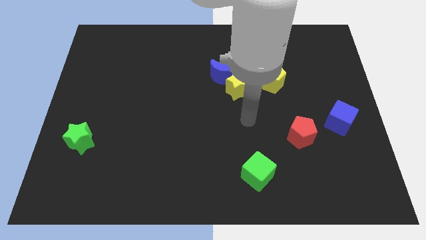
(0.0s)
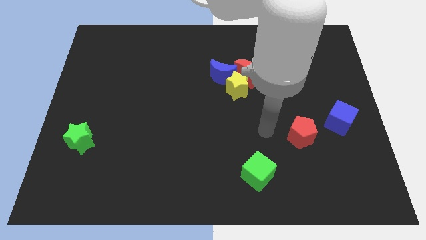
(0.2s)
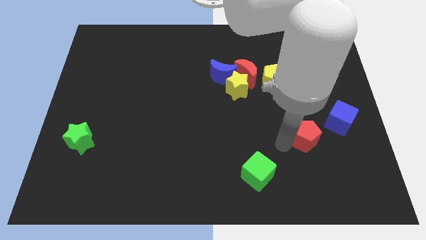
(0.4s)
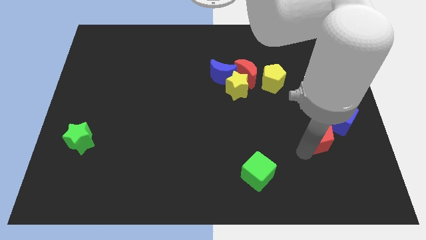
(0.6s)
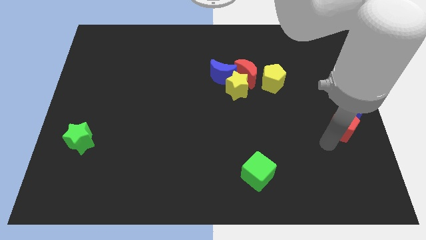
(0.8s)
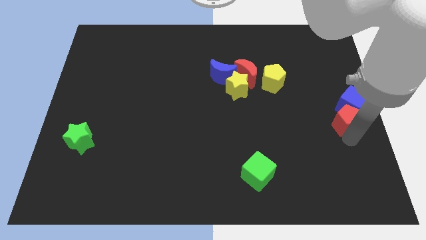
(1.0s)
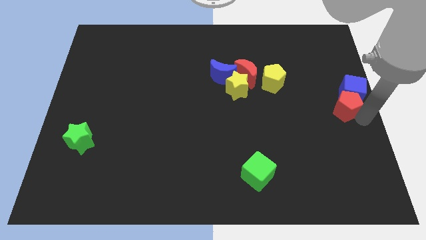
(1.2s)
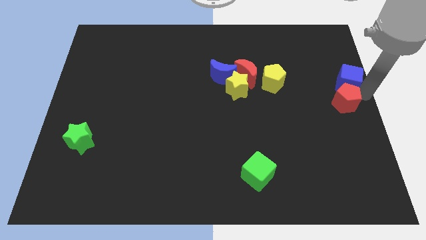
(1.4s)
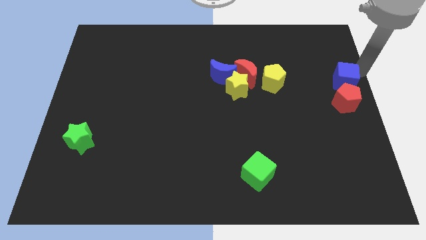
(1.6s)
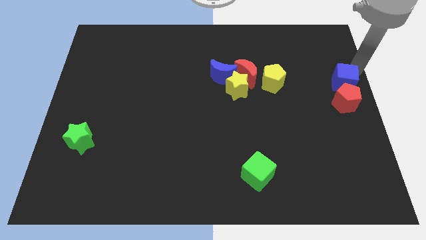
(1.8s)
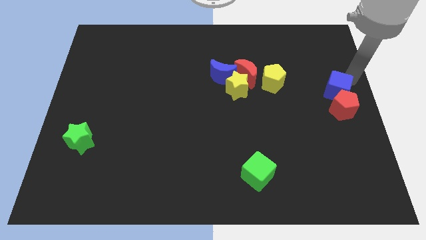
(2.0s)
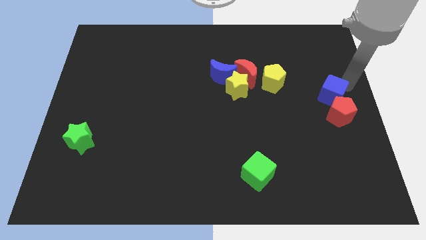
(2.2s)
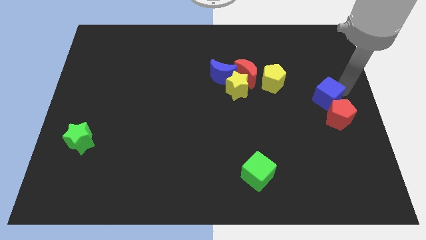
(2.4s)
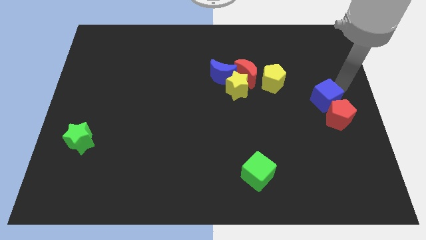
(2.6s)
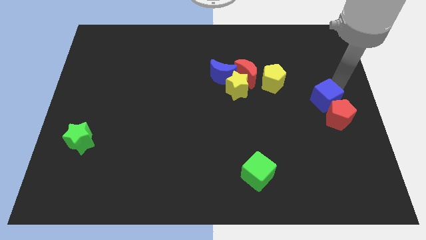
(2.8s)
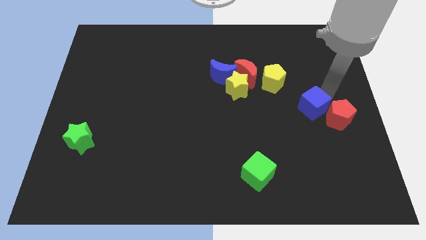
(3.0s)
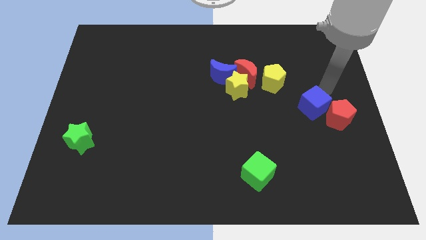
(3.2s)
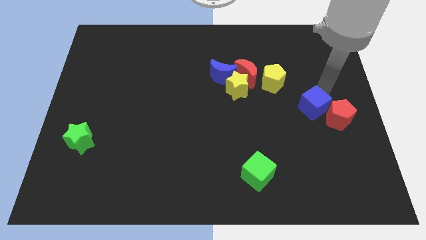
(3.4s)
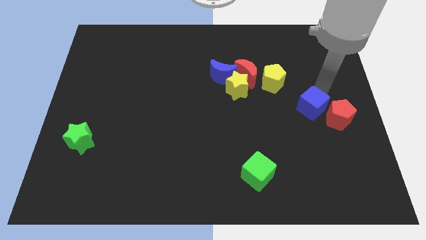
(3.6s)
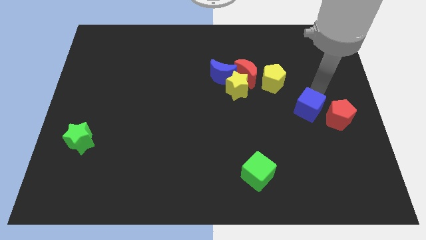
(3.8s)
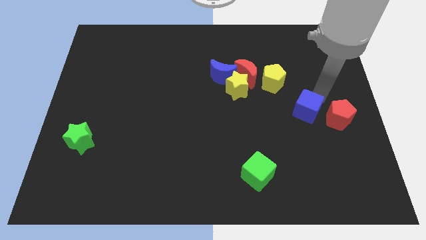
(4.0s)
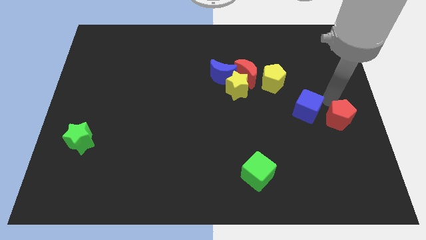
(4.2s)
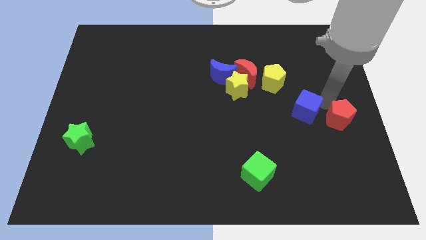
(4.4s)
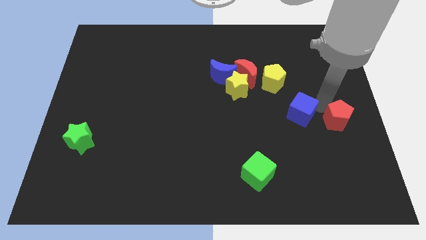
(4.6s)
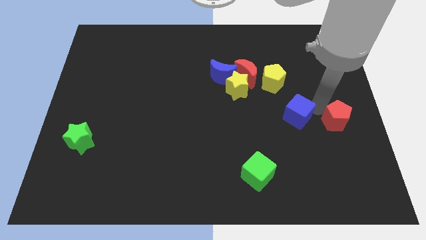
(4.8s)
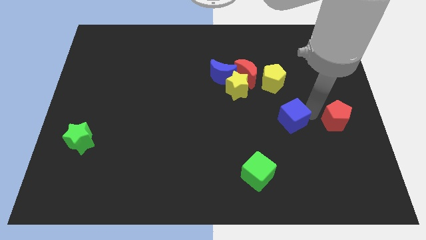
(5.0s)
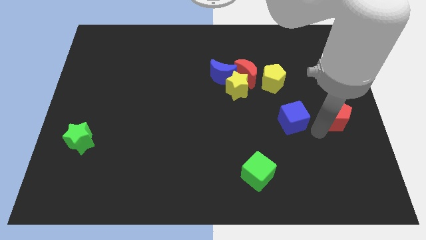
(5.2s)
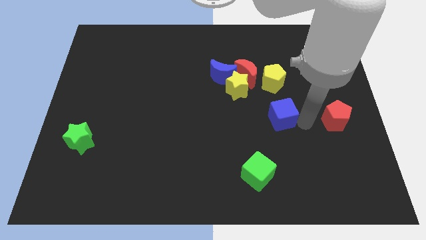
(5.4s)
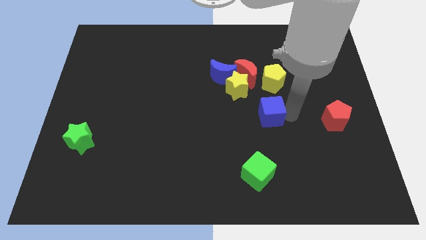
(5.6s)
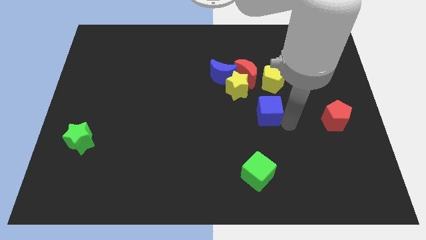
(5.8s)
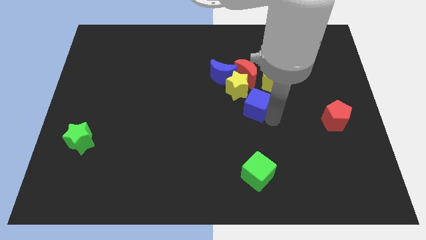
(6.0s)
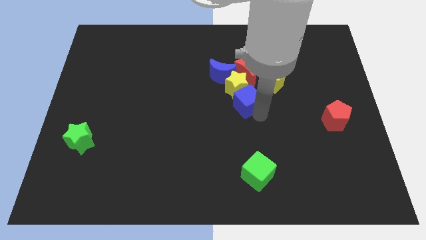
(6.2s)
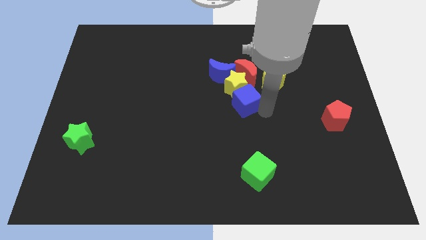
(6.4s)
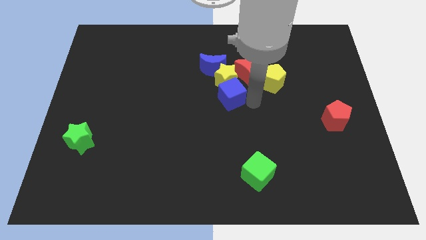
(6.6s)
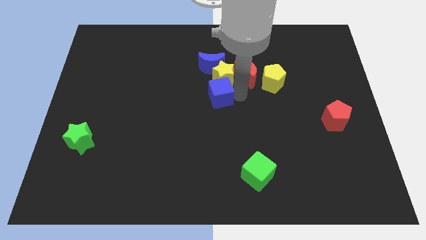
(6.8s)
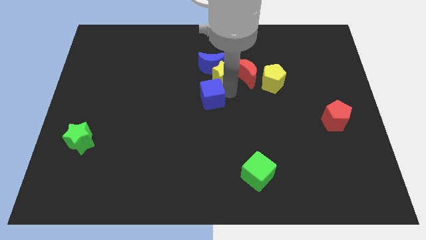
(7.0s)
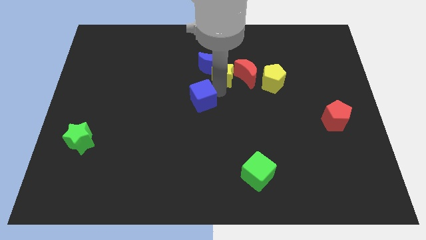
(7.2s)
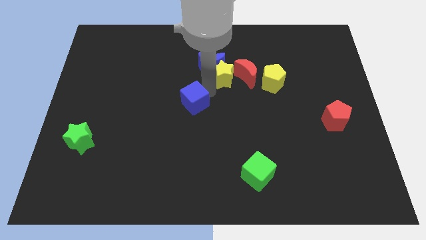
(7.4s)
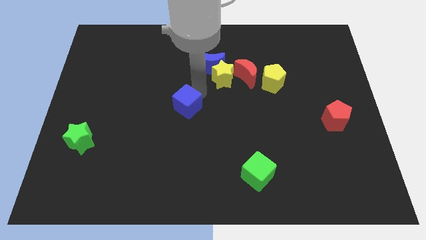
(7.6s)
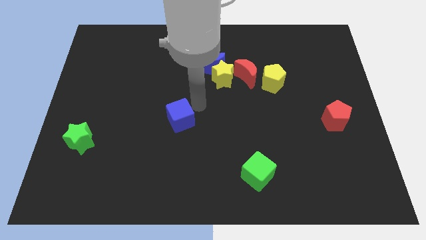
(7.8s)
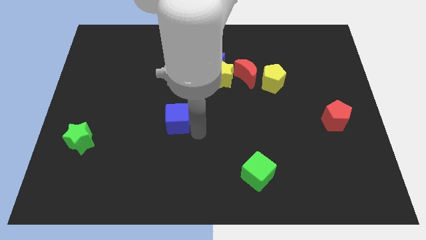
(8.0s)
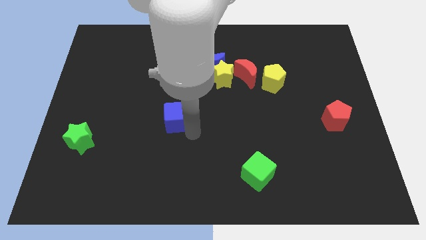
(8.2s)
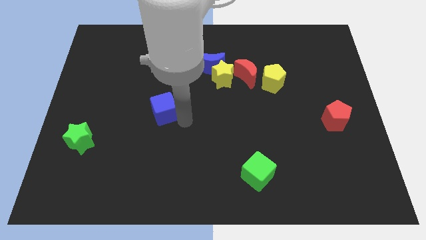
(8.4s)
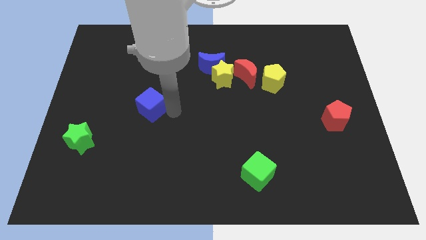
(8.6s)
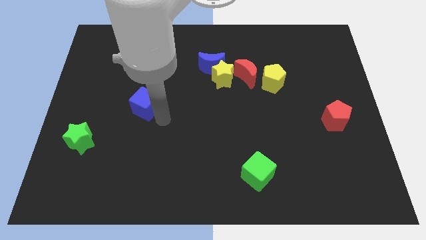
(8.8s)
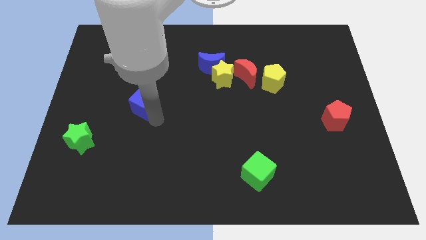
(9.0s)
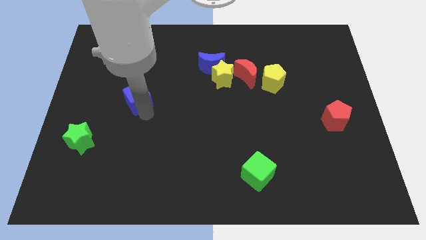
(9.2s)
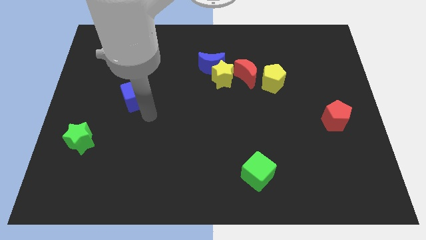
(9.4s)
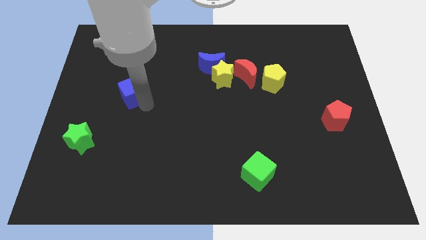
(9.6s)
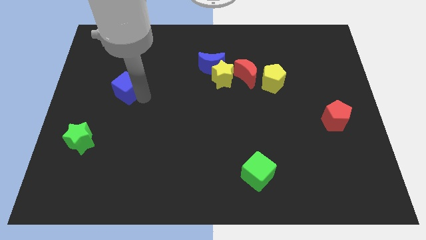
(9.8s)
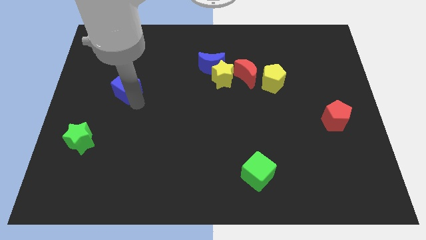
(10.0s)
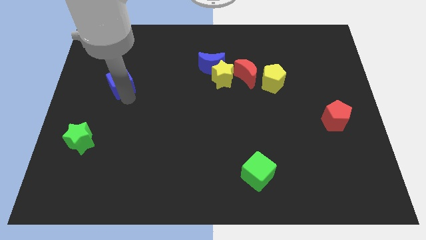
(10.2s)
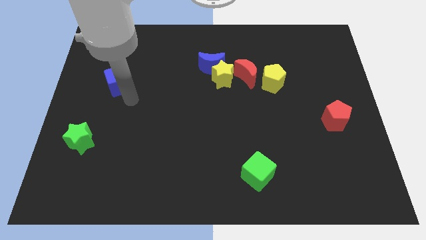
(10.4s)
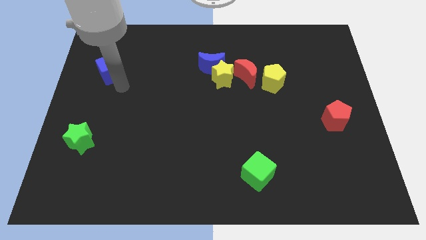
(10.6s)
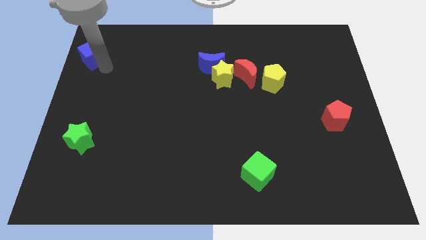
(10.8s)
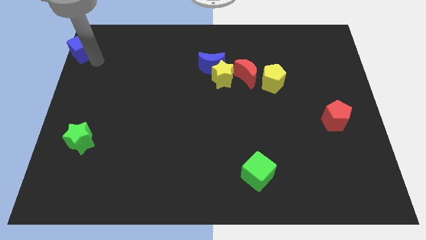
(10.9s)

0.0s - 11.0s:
move the blue cube to the top left corner

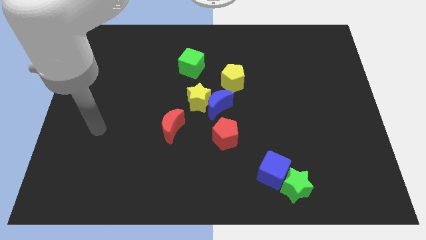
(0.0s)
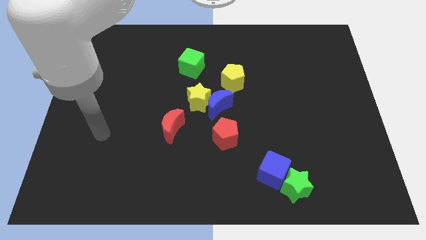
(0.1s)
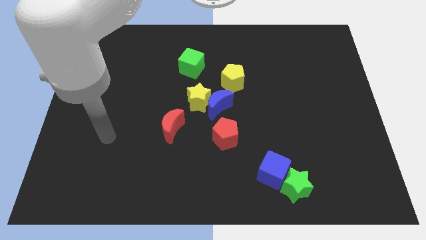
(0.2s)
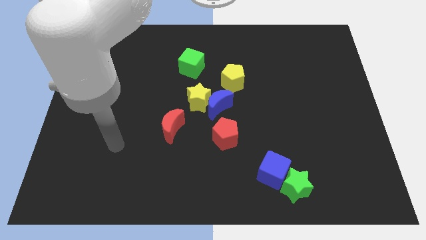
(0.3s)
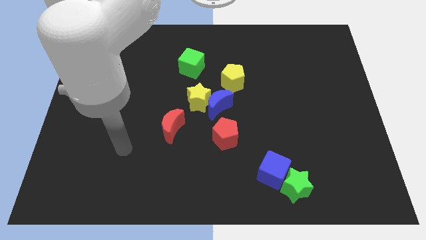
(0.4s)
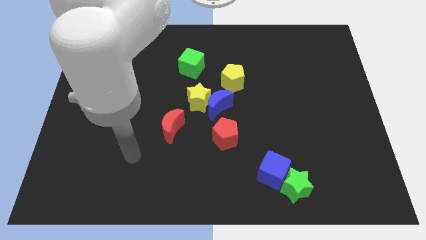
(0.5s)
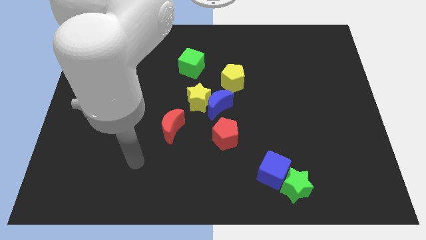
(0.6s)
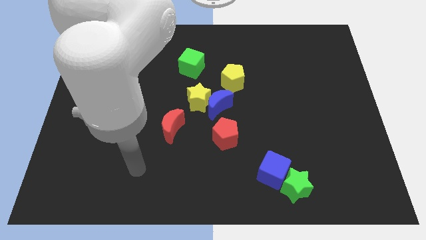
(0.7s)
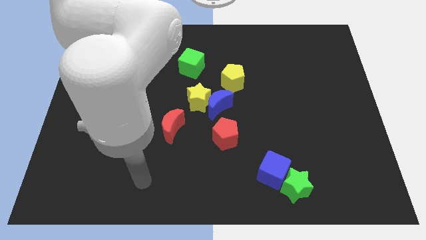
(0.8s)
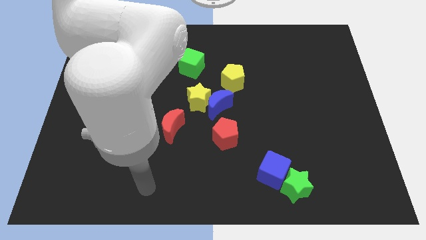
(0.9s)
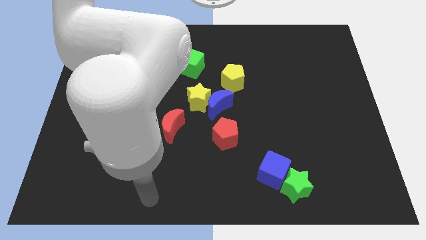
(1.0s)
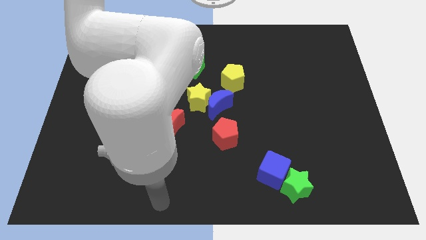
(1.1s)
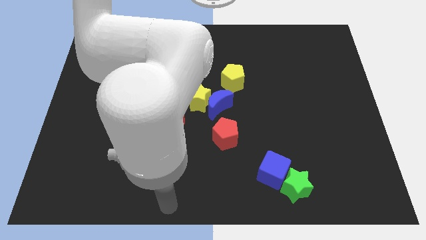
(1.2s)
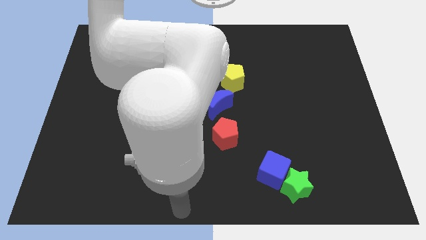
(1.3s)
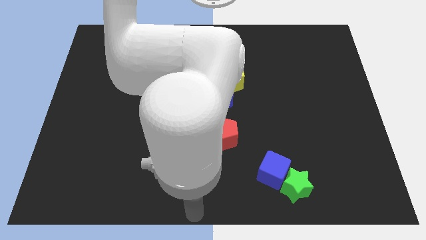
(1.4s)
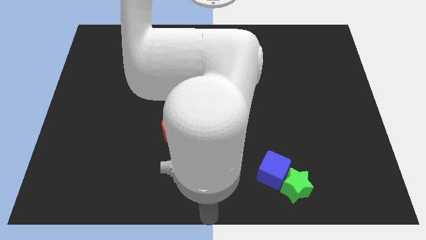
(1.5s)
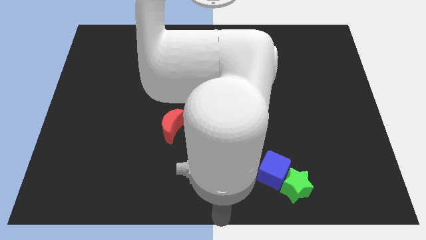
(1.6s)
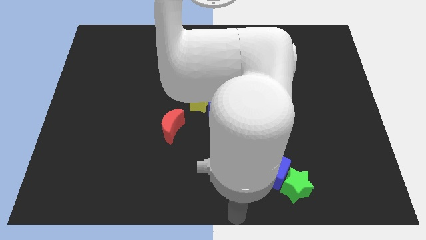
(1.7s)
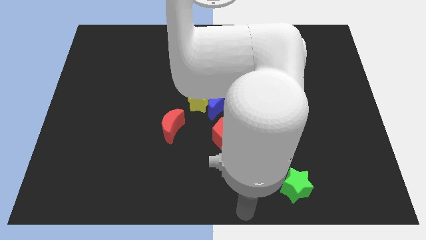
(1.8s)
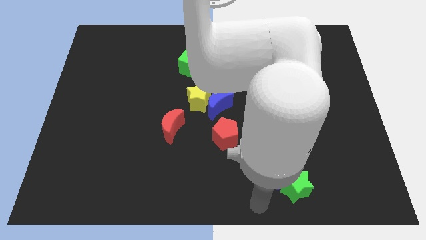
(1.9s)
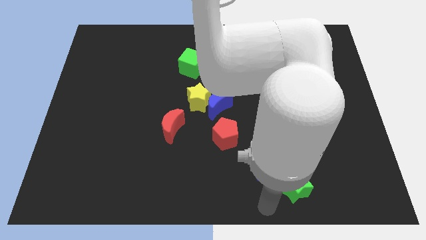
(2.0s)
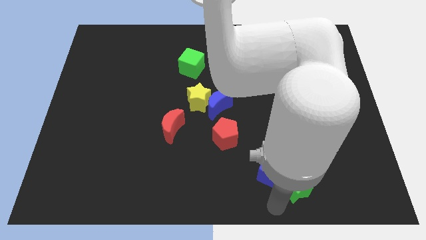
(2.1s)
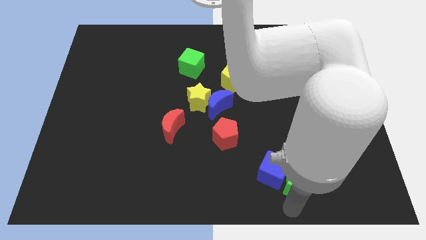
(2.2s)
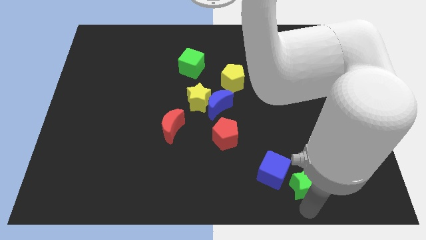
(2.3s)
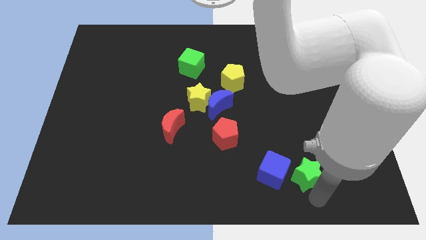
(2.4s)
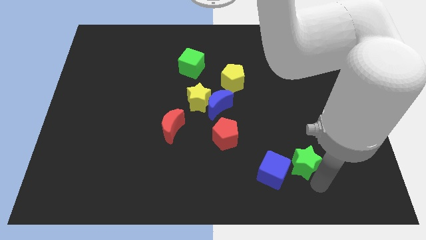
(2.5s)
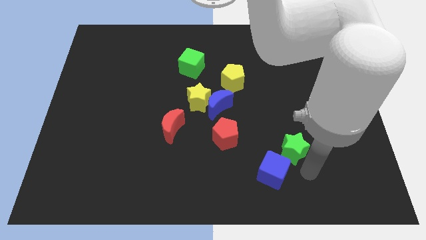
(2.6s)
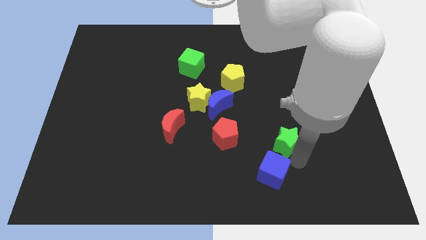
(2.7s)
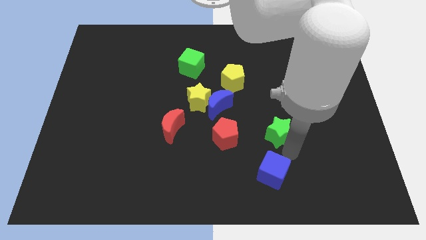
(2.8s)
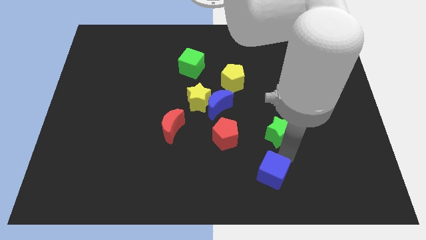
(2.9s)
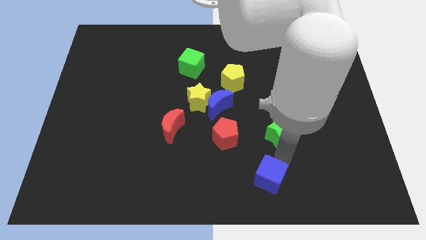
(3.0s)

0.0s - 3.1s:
put the blue cube to the bottom
